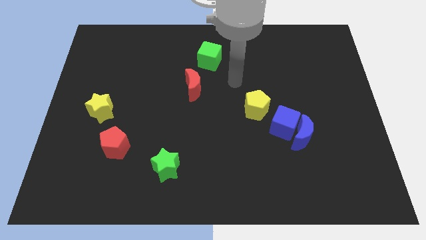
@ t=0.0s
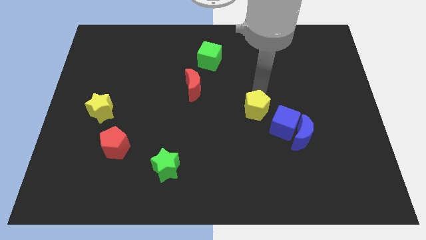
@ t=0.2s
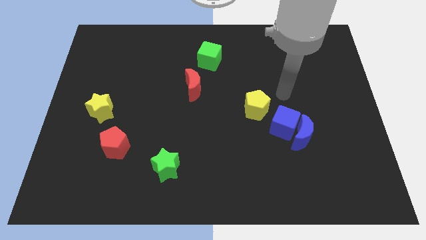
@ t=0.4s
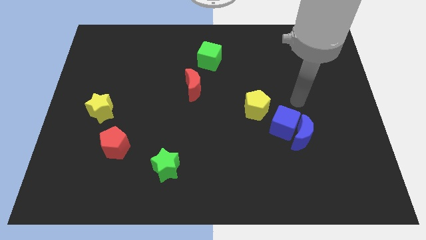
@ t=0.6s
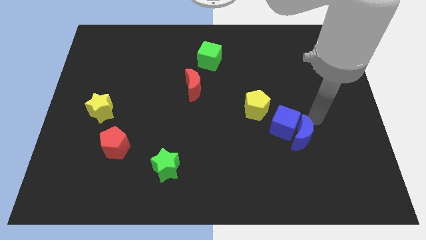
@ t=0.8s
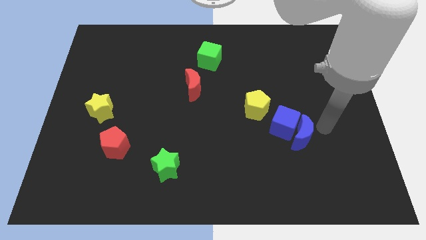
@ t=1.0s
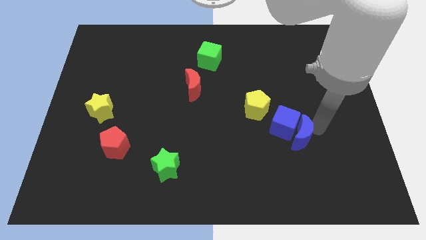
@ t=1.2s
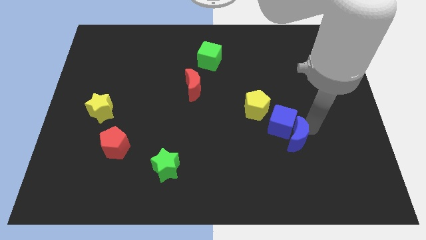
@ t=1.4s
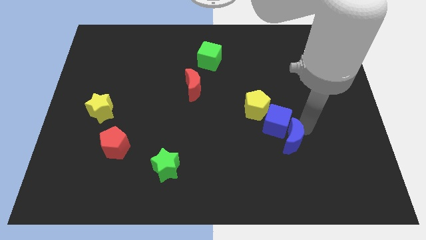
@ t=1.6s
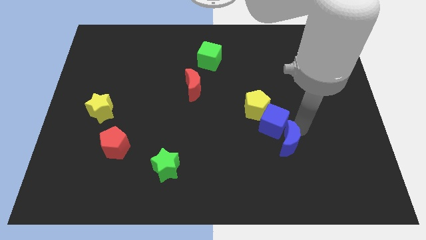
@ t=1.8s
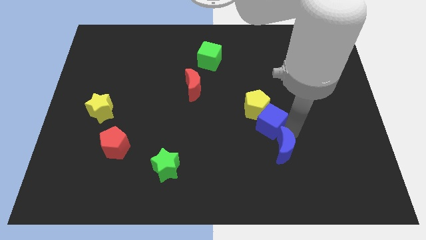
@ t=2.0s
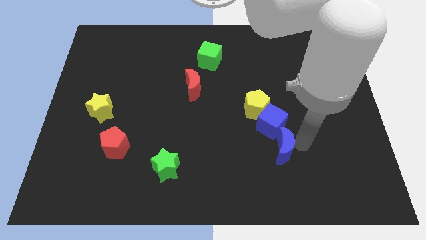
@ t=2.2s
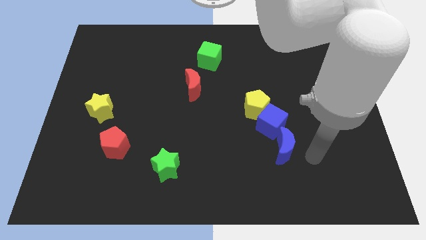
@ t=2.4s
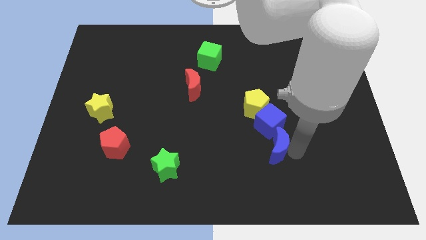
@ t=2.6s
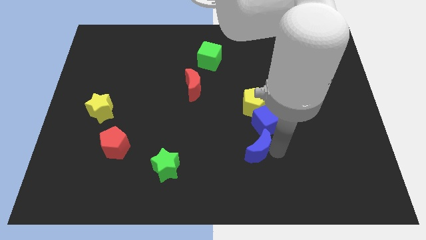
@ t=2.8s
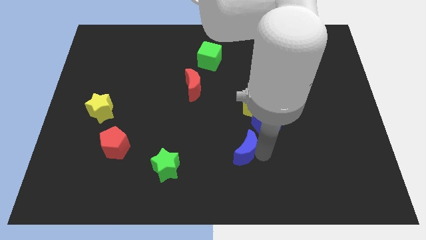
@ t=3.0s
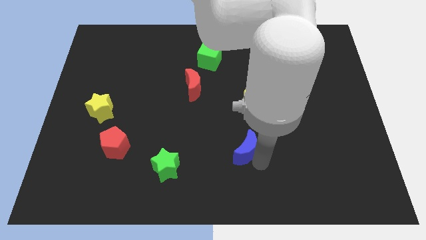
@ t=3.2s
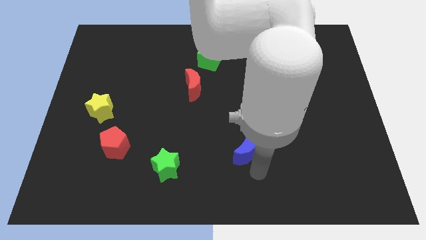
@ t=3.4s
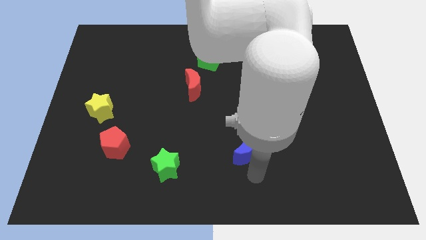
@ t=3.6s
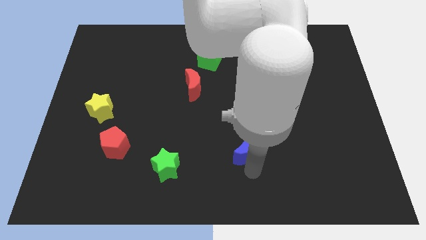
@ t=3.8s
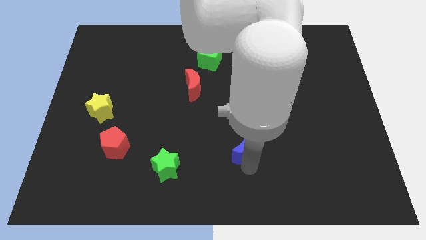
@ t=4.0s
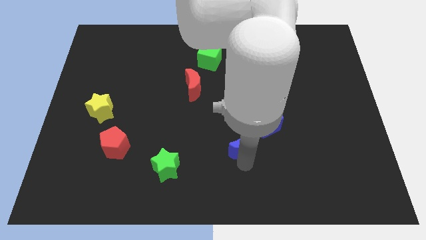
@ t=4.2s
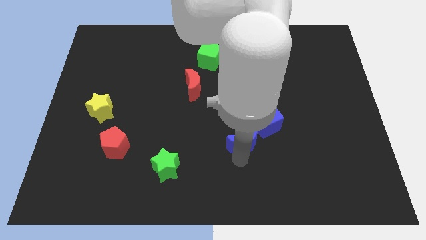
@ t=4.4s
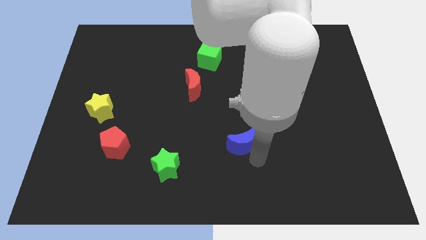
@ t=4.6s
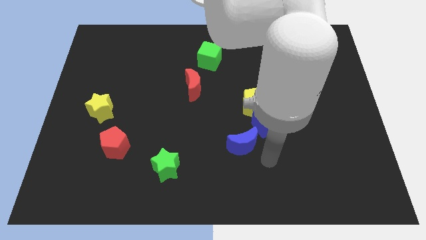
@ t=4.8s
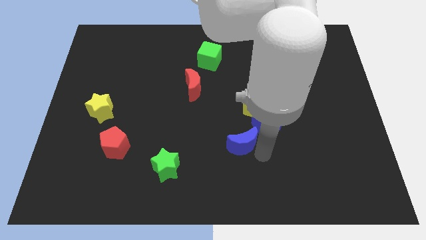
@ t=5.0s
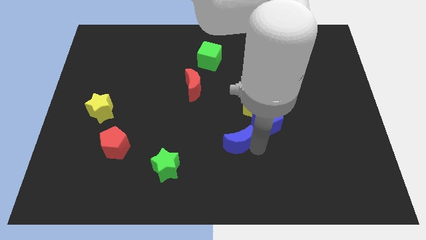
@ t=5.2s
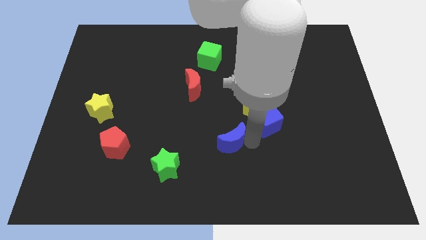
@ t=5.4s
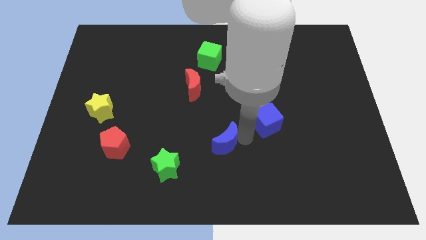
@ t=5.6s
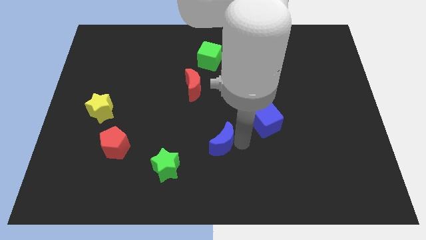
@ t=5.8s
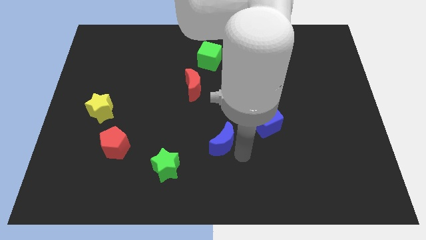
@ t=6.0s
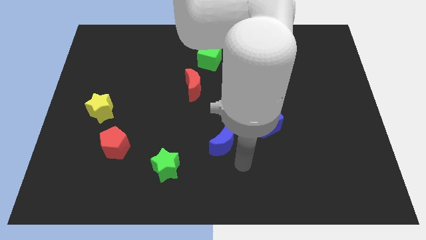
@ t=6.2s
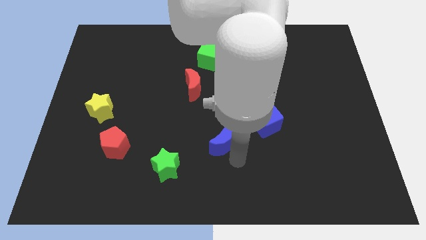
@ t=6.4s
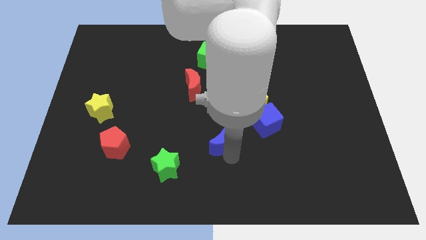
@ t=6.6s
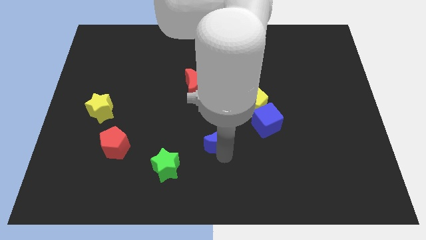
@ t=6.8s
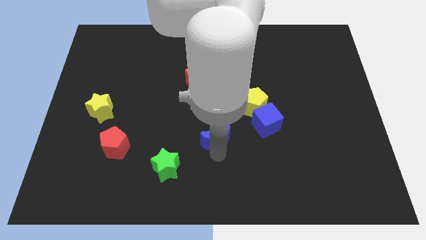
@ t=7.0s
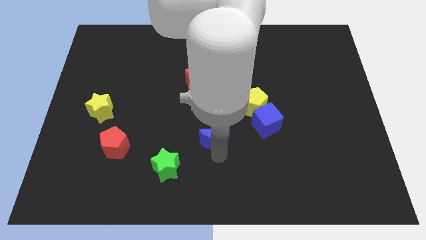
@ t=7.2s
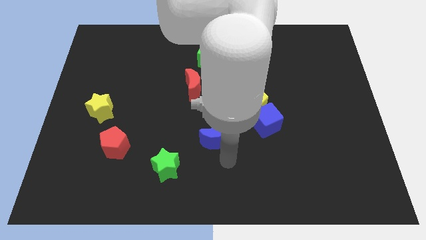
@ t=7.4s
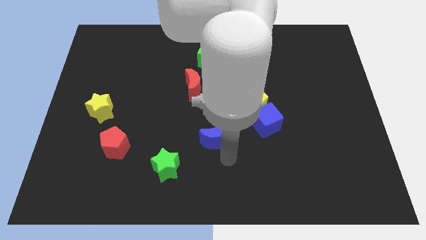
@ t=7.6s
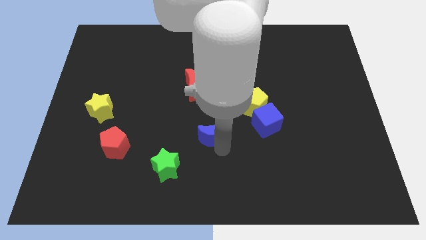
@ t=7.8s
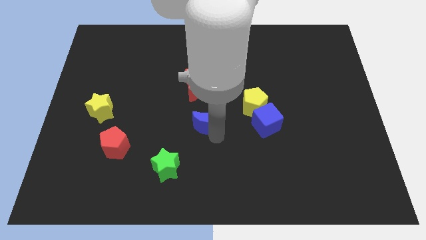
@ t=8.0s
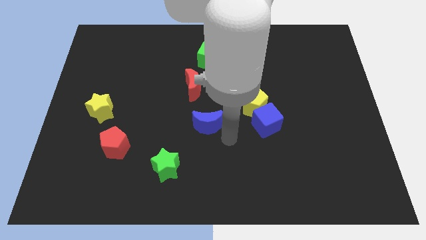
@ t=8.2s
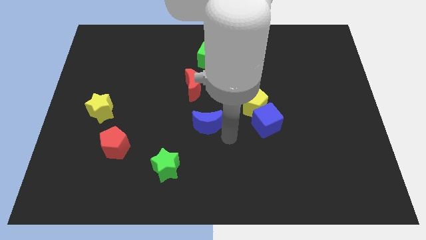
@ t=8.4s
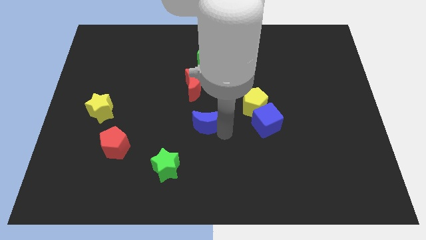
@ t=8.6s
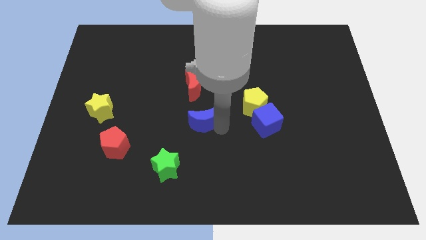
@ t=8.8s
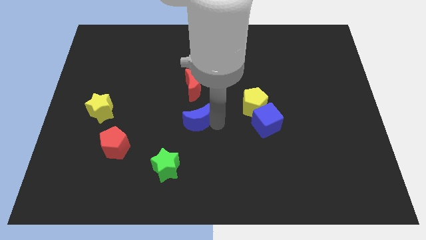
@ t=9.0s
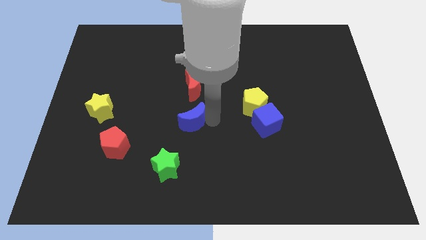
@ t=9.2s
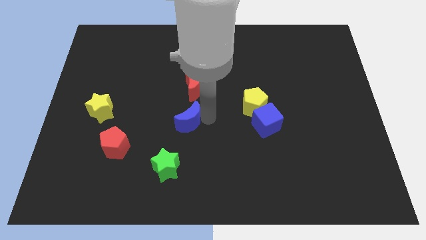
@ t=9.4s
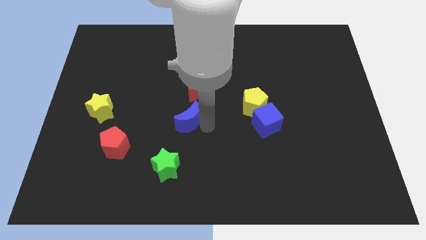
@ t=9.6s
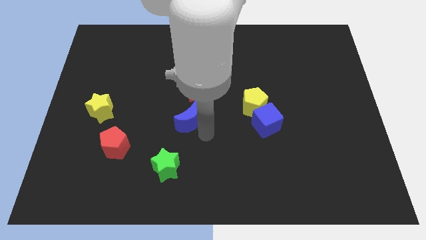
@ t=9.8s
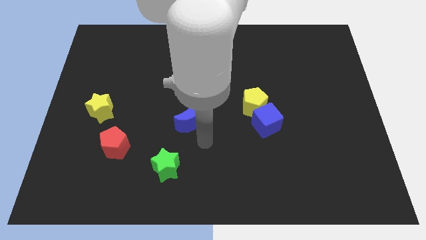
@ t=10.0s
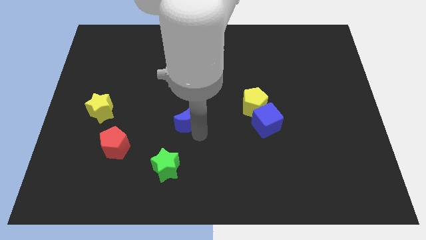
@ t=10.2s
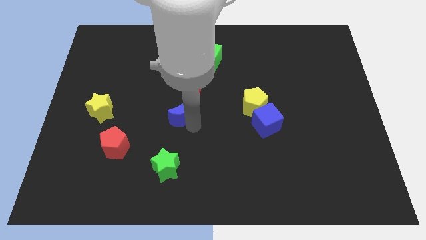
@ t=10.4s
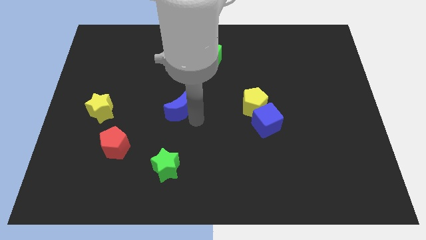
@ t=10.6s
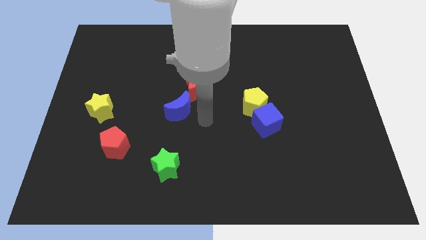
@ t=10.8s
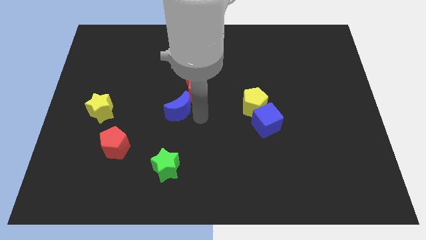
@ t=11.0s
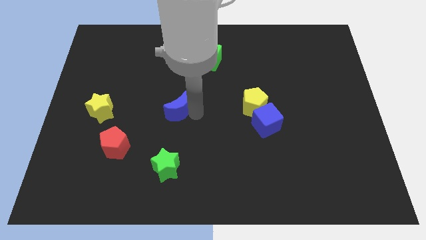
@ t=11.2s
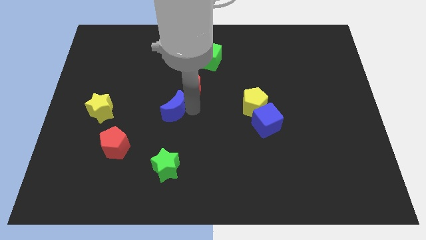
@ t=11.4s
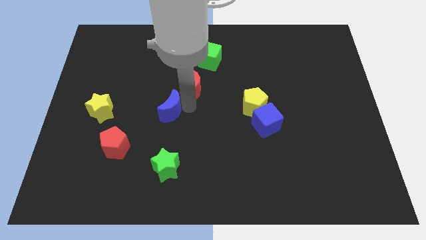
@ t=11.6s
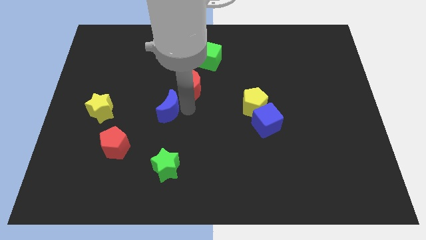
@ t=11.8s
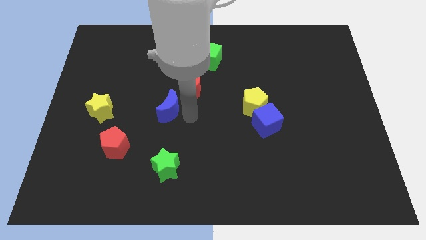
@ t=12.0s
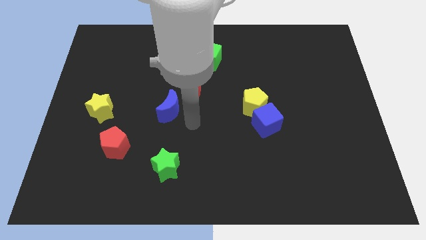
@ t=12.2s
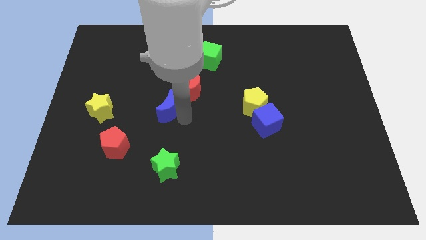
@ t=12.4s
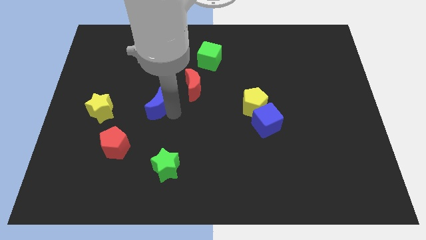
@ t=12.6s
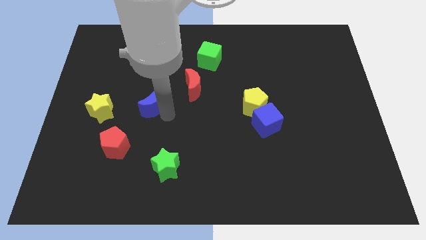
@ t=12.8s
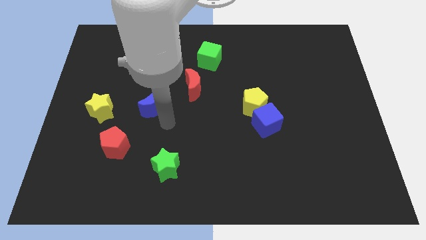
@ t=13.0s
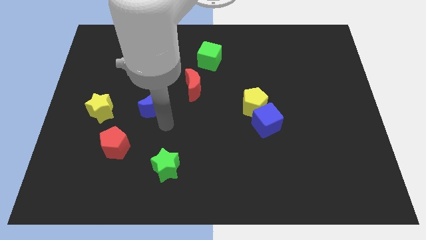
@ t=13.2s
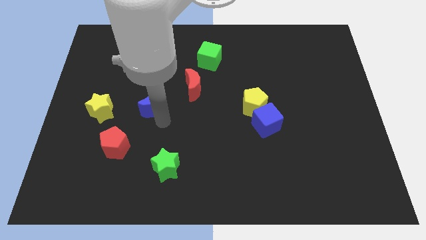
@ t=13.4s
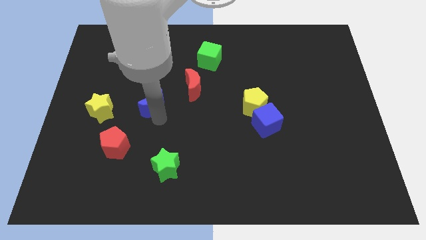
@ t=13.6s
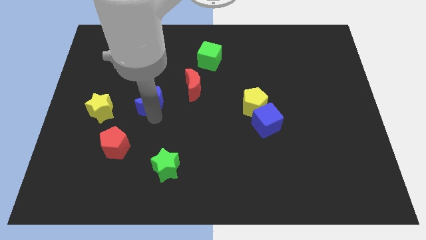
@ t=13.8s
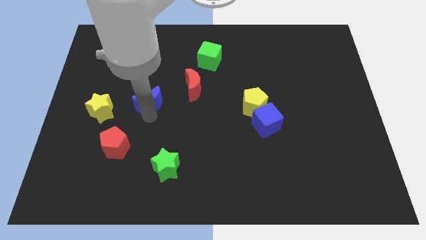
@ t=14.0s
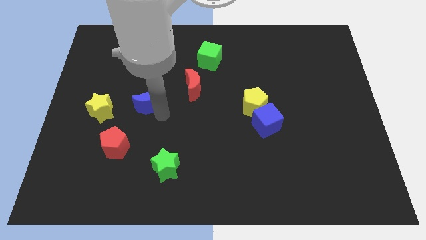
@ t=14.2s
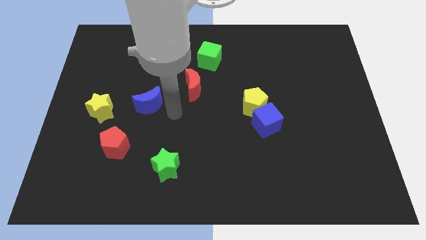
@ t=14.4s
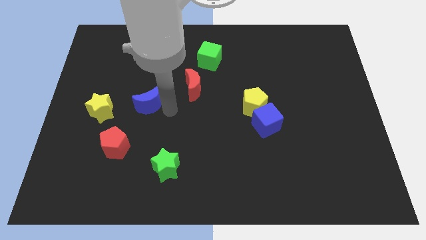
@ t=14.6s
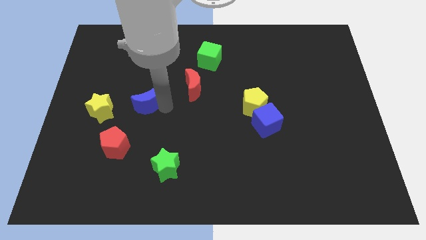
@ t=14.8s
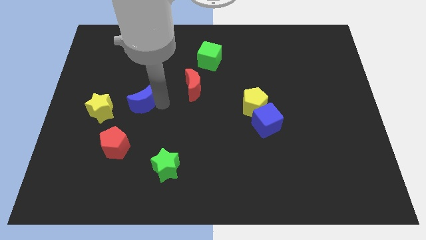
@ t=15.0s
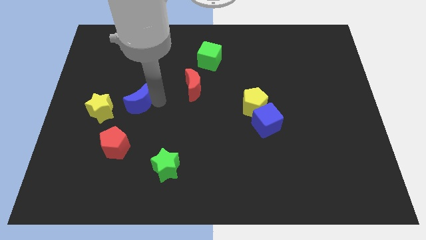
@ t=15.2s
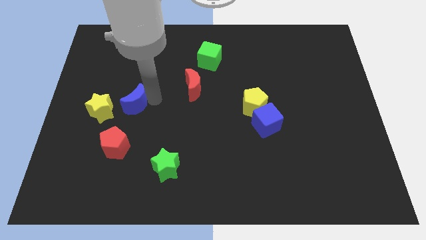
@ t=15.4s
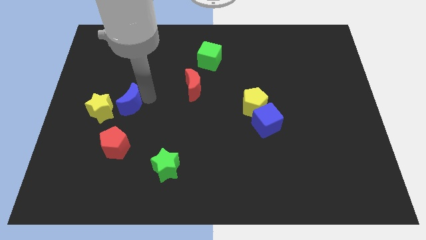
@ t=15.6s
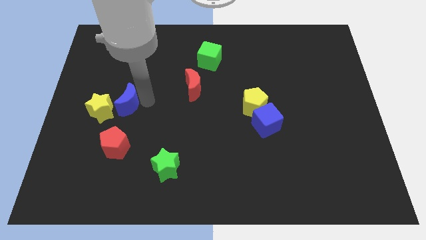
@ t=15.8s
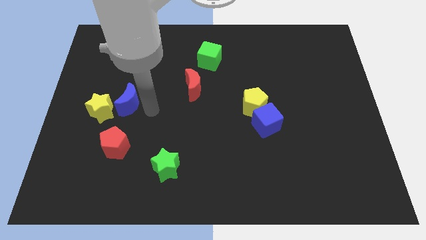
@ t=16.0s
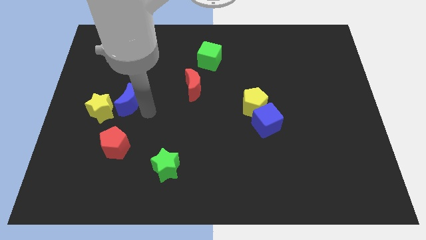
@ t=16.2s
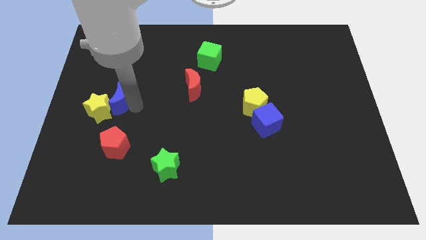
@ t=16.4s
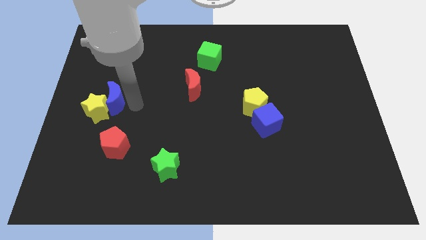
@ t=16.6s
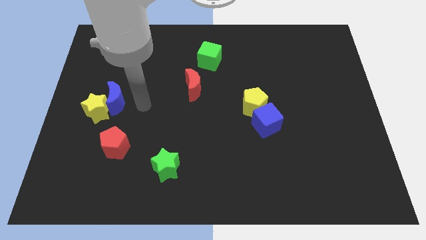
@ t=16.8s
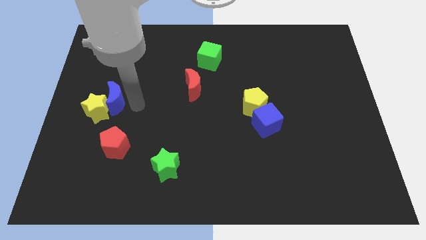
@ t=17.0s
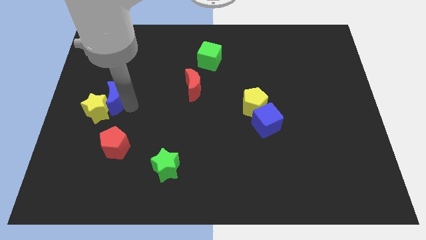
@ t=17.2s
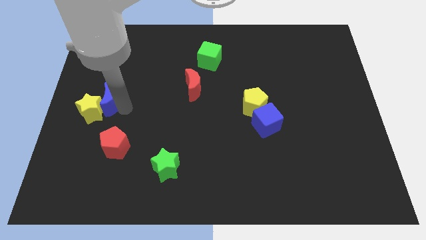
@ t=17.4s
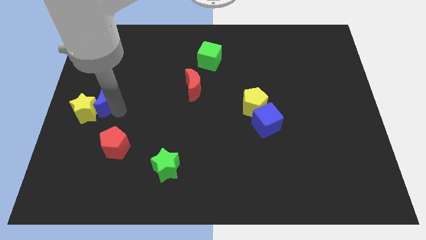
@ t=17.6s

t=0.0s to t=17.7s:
push the blue moon to the left side of the board
